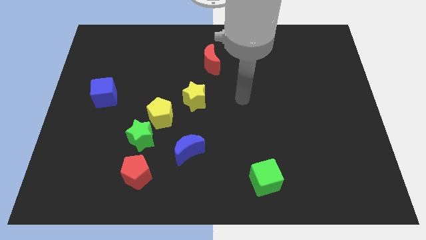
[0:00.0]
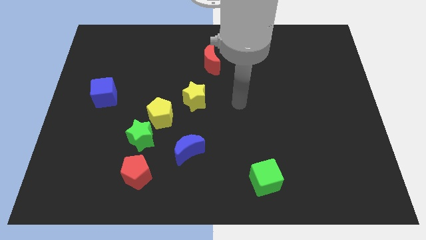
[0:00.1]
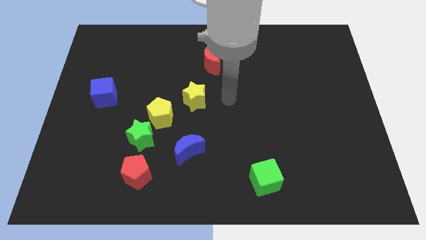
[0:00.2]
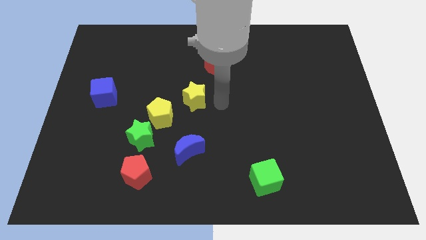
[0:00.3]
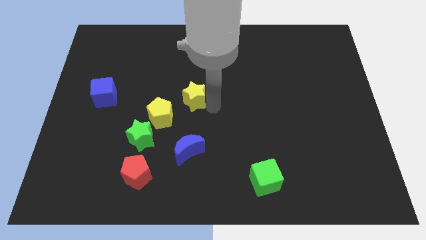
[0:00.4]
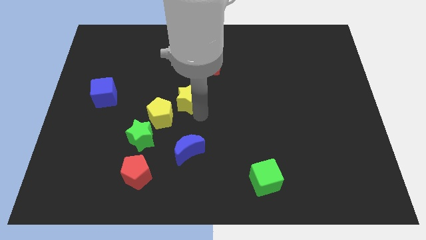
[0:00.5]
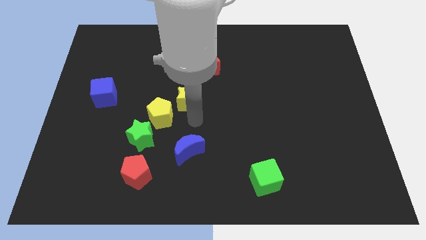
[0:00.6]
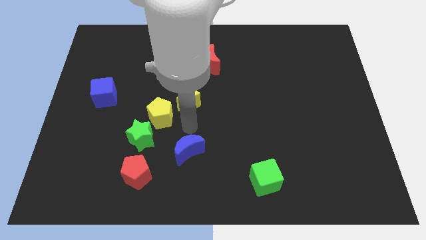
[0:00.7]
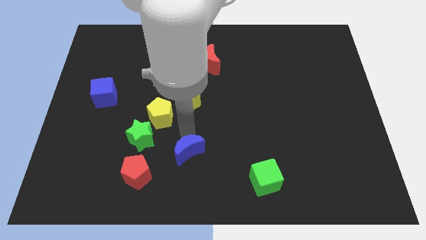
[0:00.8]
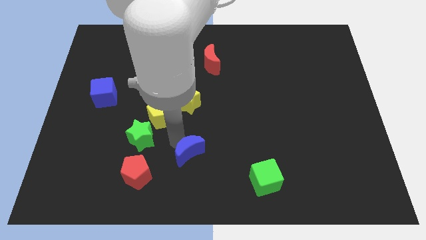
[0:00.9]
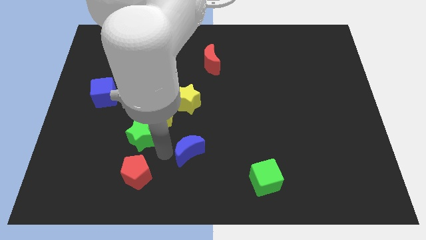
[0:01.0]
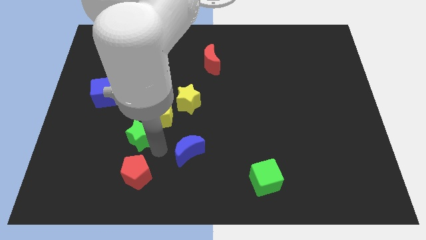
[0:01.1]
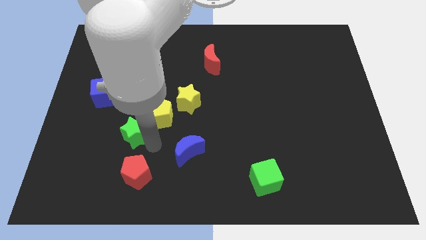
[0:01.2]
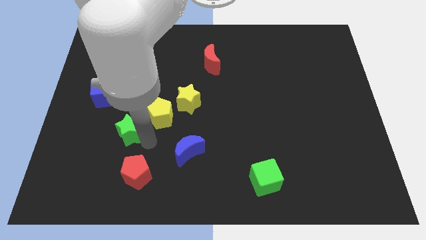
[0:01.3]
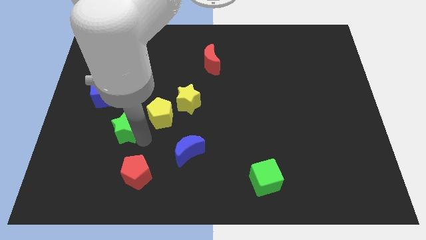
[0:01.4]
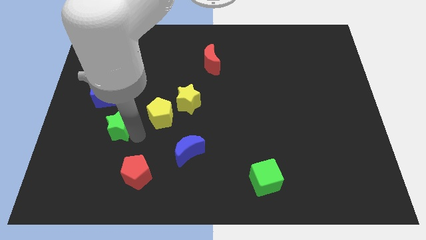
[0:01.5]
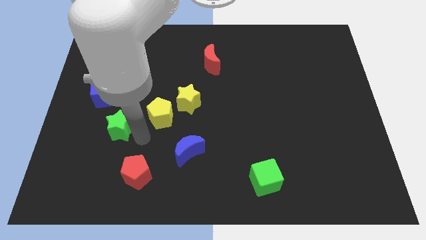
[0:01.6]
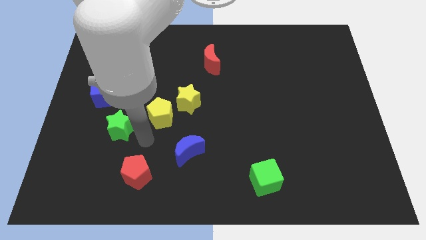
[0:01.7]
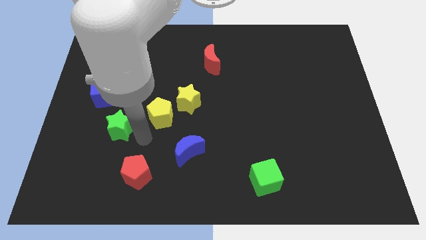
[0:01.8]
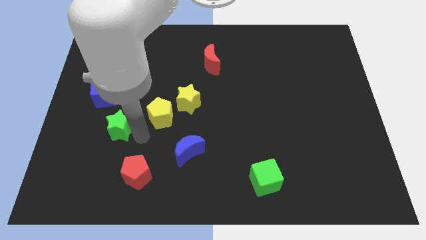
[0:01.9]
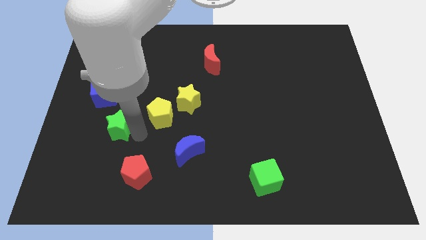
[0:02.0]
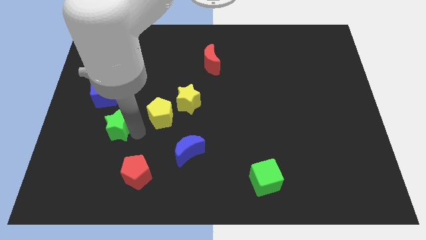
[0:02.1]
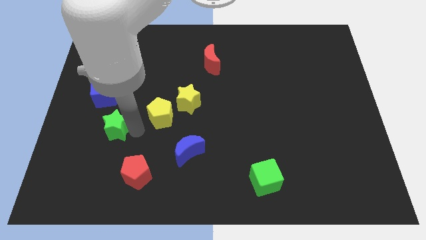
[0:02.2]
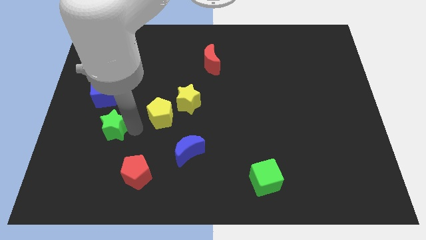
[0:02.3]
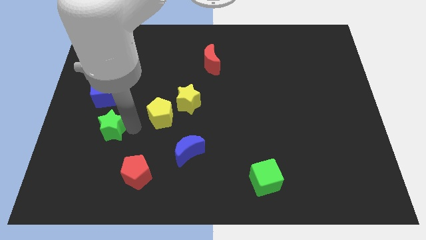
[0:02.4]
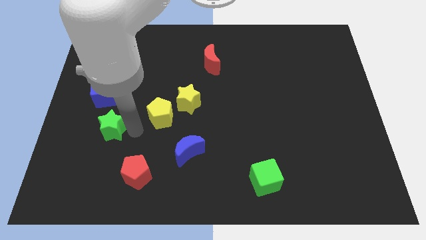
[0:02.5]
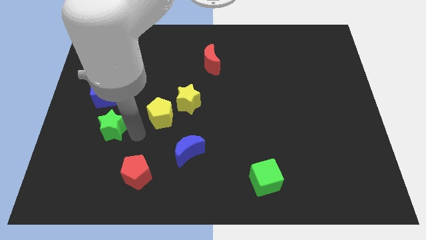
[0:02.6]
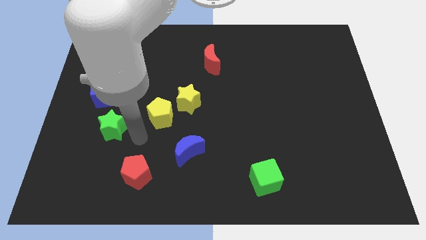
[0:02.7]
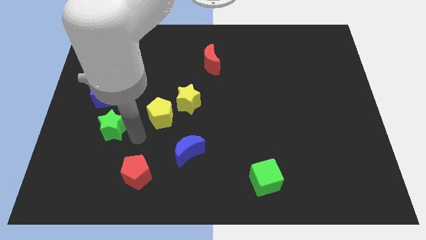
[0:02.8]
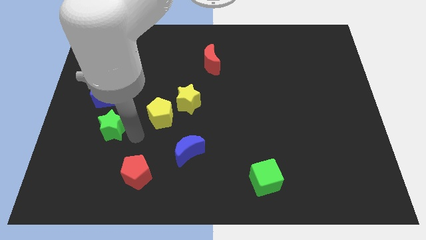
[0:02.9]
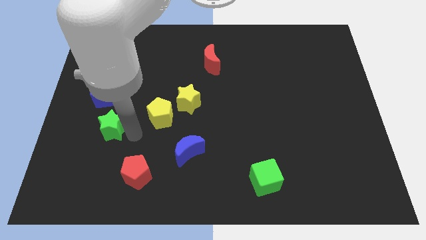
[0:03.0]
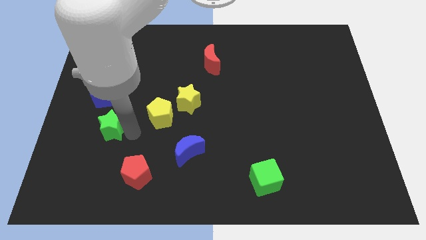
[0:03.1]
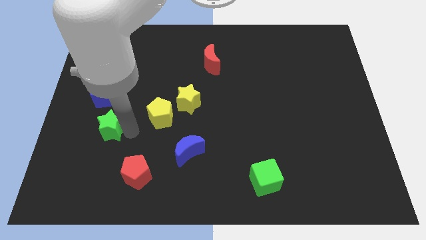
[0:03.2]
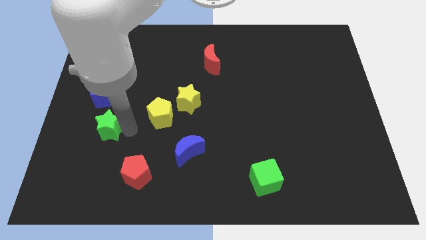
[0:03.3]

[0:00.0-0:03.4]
pull the green star apart from the yellow pentagon and red pentagon

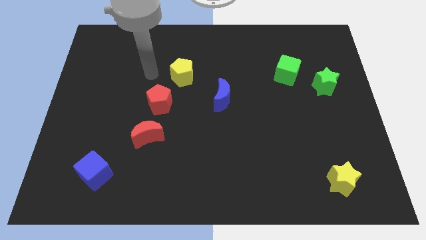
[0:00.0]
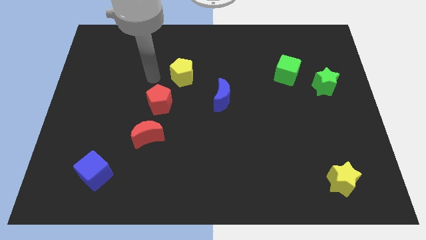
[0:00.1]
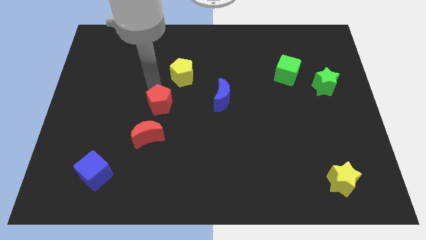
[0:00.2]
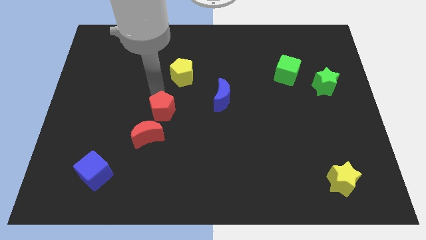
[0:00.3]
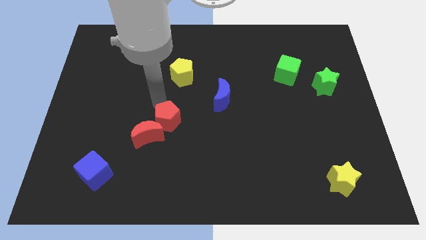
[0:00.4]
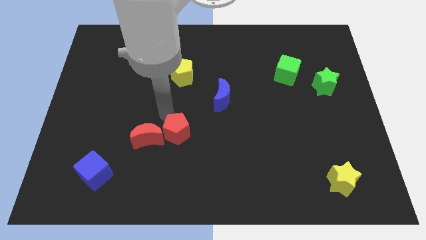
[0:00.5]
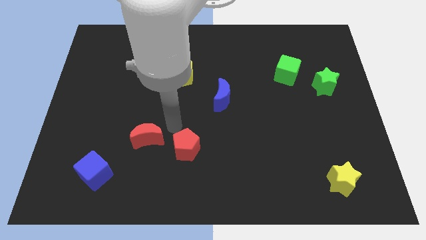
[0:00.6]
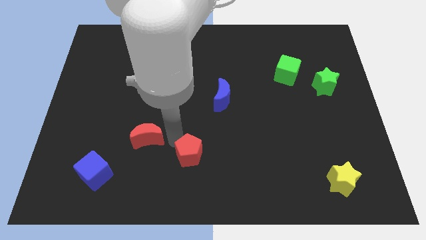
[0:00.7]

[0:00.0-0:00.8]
separate the red moon from the red pentagon

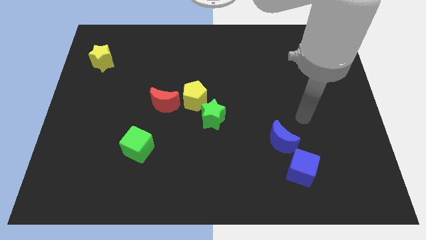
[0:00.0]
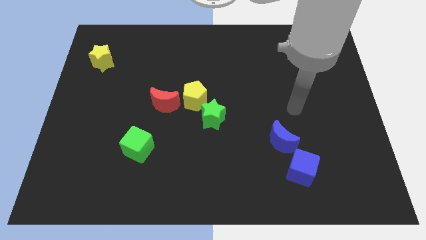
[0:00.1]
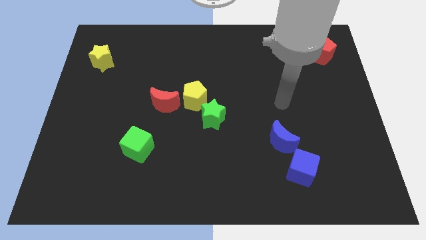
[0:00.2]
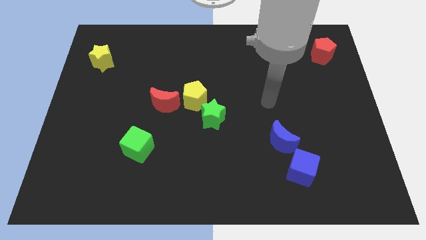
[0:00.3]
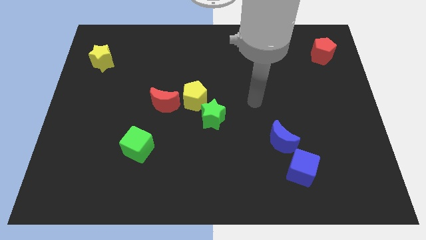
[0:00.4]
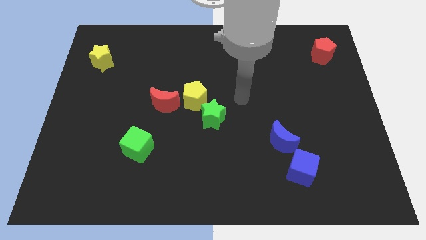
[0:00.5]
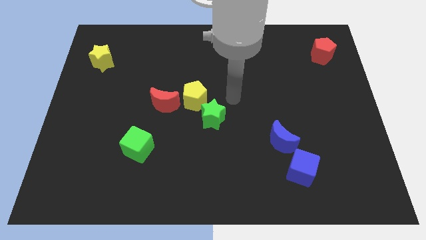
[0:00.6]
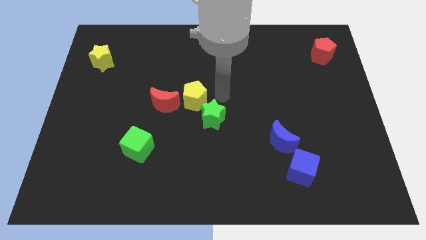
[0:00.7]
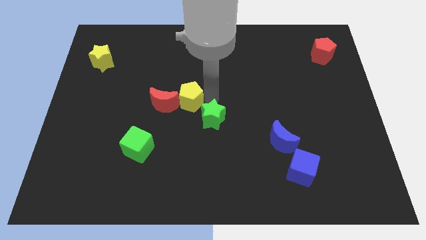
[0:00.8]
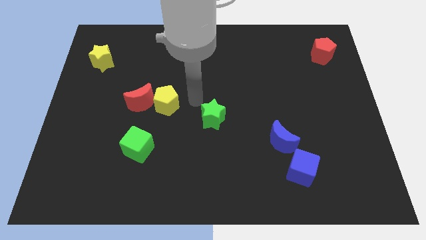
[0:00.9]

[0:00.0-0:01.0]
separate the green star from the yellow pentagon

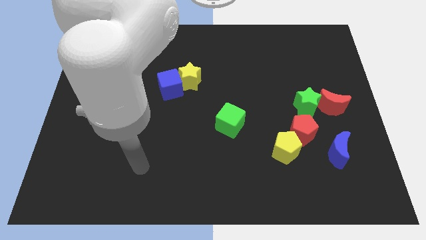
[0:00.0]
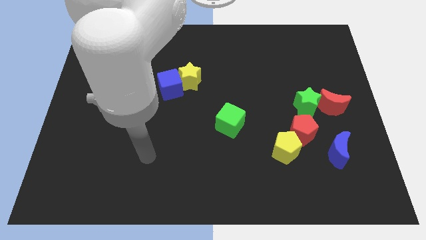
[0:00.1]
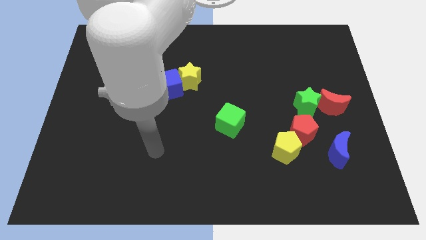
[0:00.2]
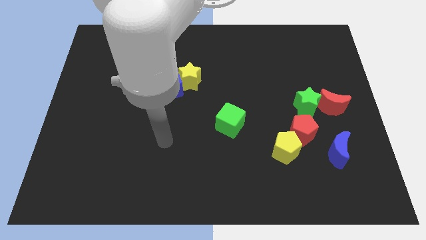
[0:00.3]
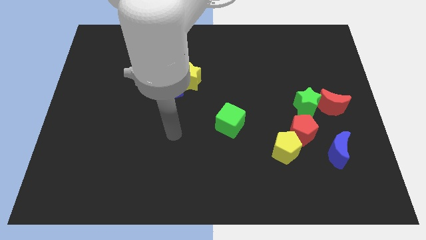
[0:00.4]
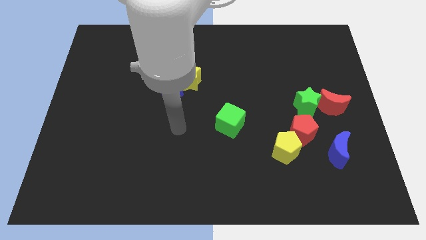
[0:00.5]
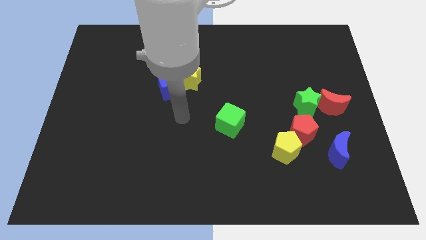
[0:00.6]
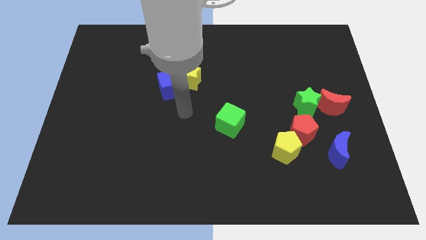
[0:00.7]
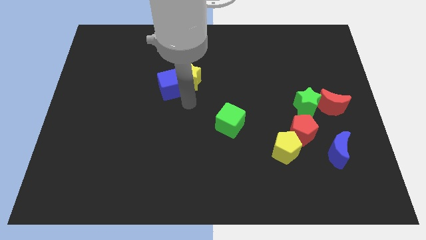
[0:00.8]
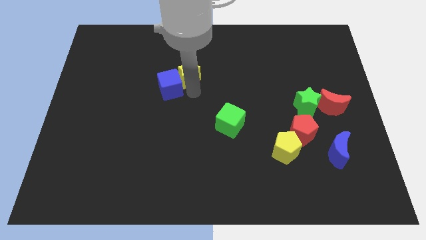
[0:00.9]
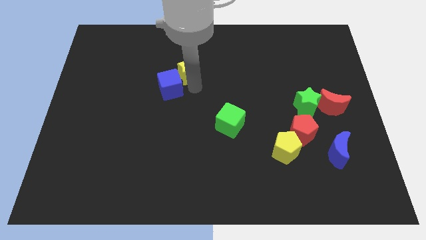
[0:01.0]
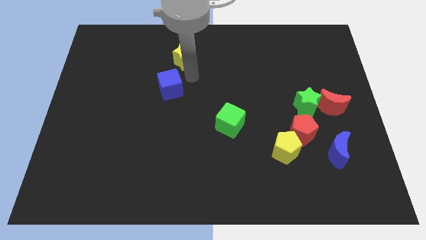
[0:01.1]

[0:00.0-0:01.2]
pull the blue cube apart from the yellow star

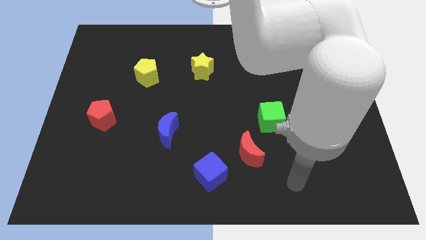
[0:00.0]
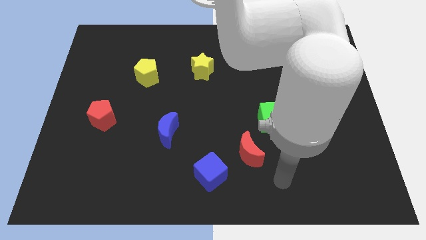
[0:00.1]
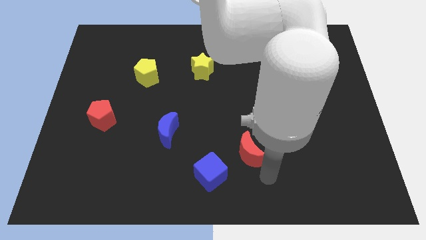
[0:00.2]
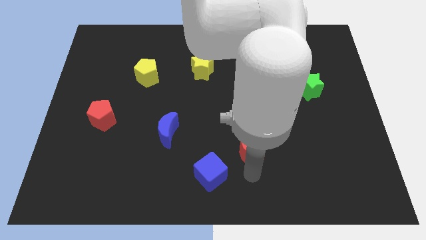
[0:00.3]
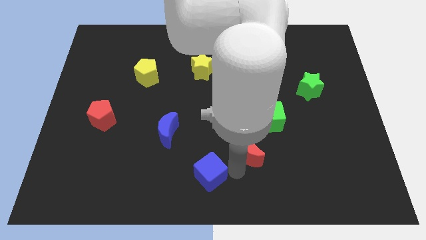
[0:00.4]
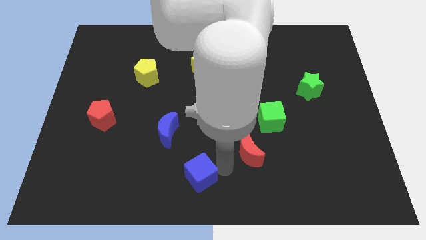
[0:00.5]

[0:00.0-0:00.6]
move the red moon away from the blue cube

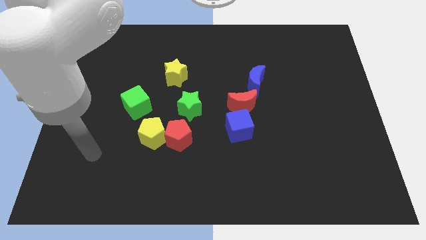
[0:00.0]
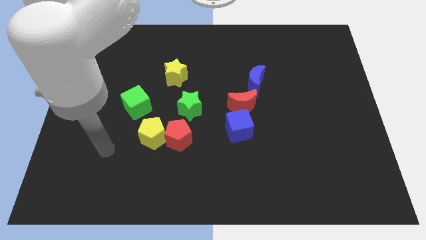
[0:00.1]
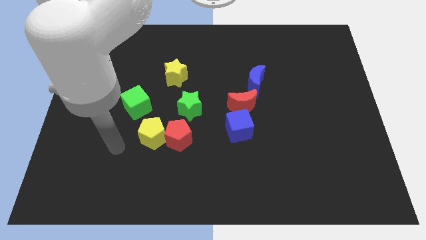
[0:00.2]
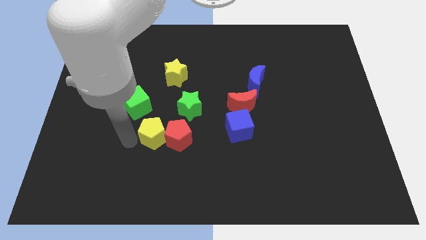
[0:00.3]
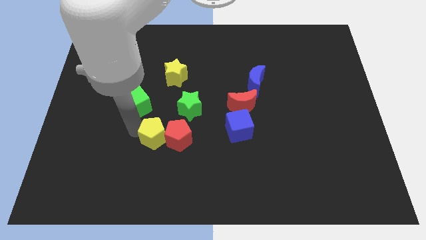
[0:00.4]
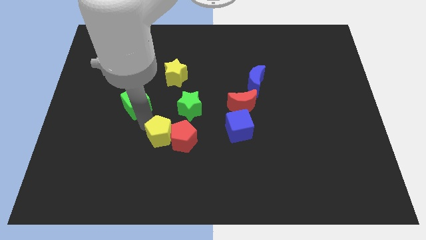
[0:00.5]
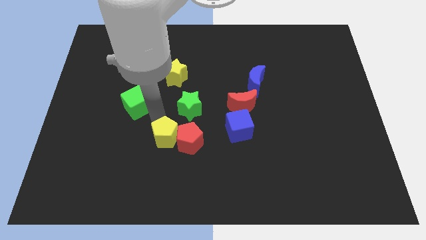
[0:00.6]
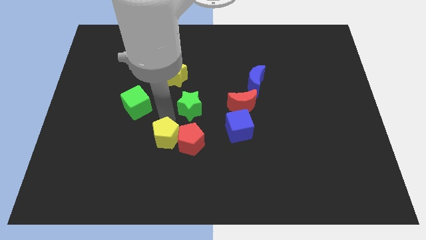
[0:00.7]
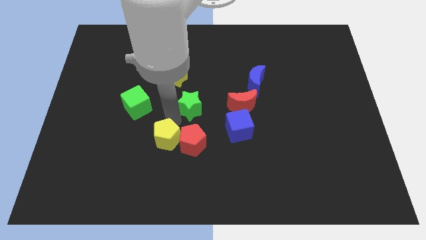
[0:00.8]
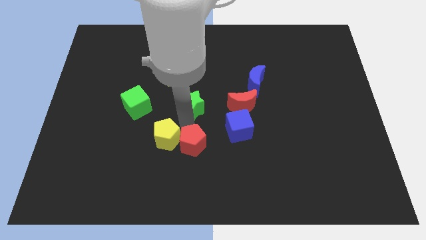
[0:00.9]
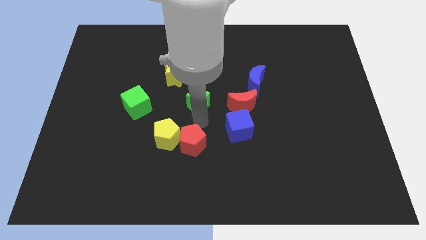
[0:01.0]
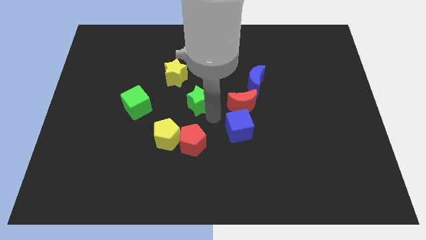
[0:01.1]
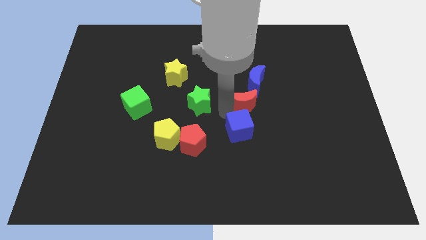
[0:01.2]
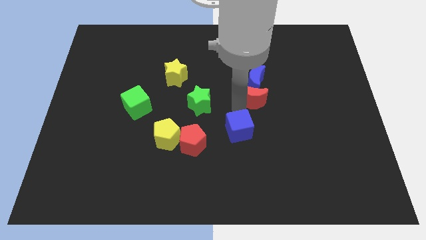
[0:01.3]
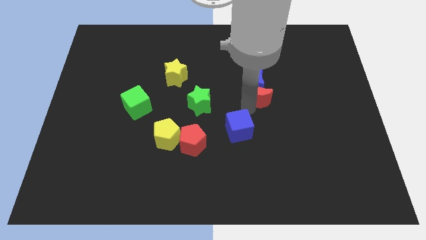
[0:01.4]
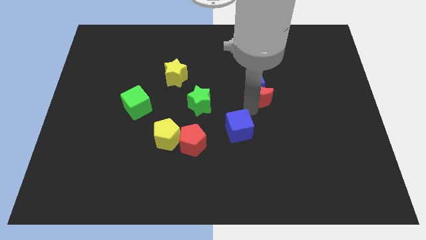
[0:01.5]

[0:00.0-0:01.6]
move the blue cube away from the red moon

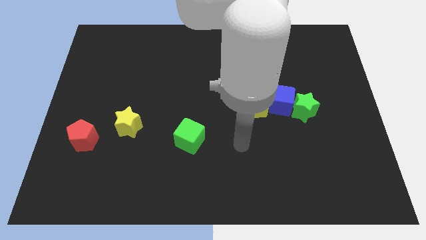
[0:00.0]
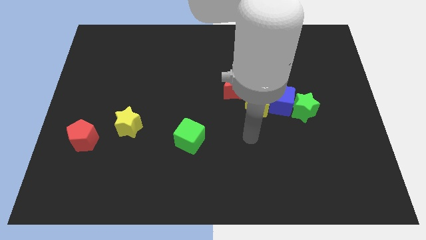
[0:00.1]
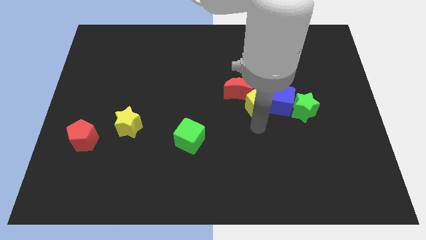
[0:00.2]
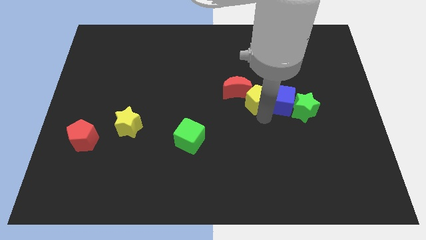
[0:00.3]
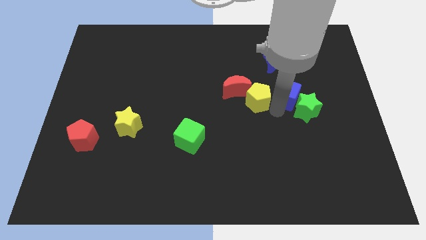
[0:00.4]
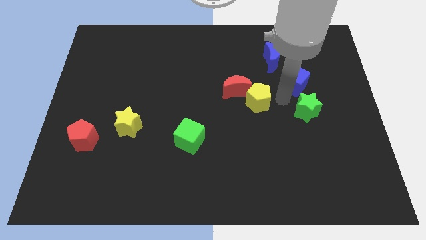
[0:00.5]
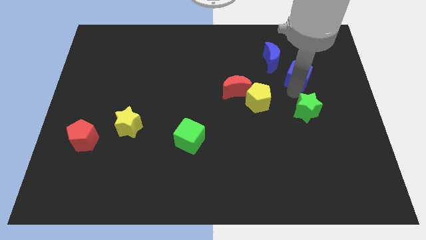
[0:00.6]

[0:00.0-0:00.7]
separate the green star from the blue cube
